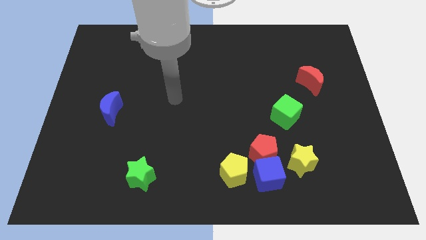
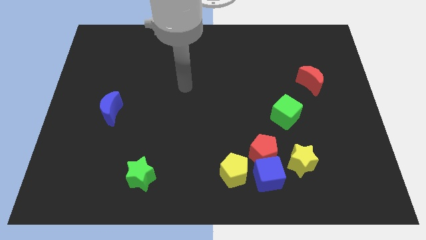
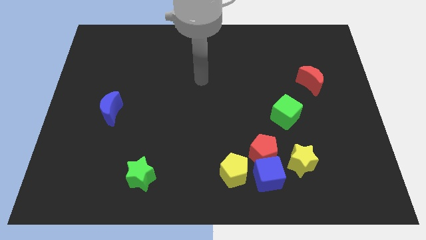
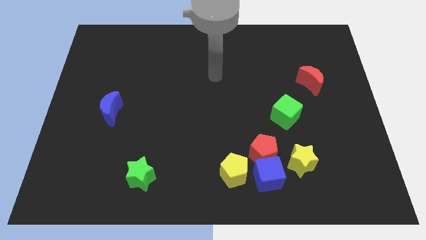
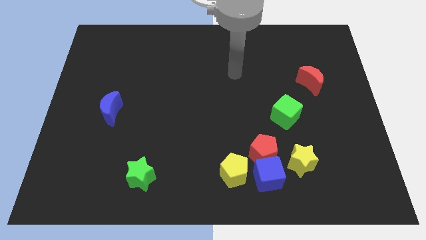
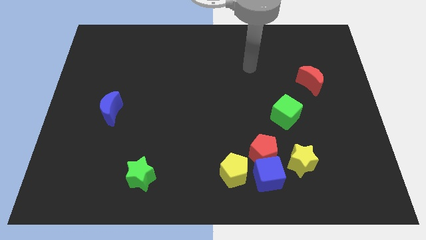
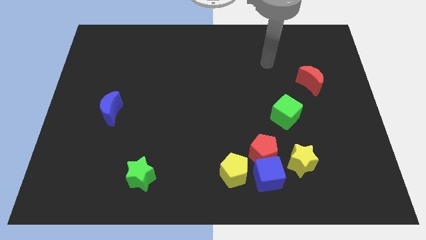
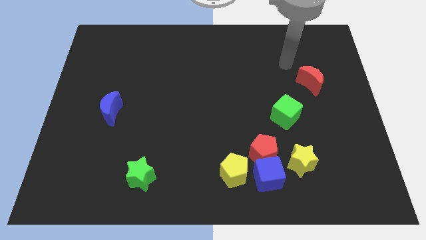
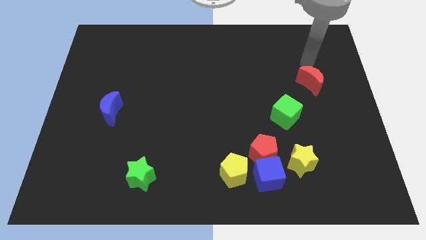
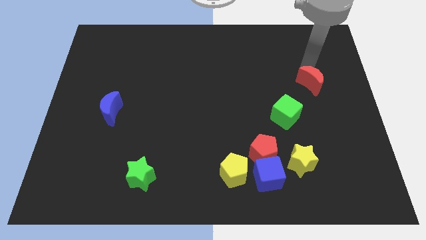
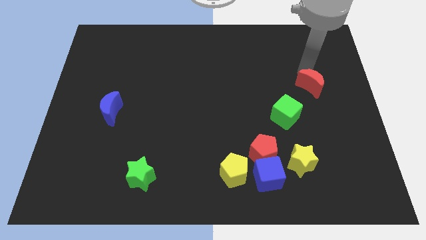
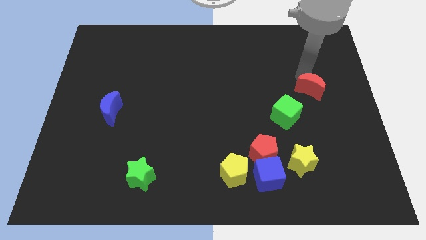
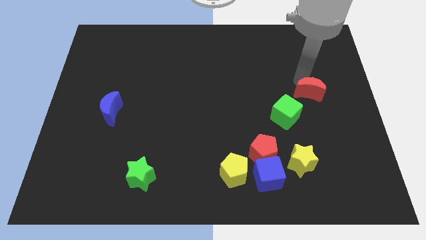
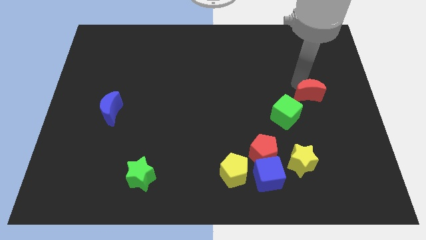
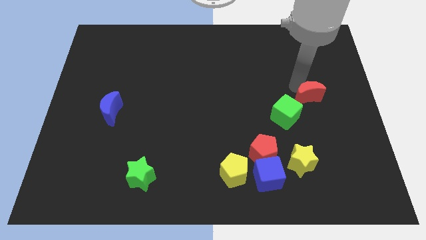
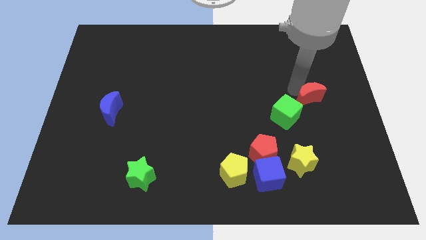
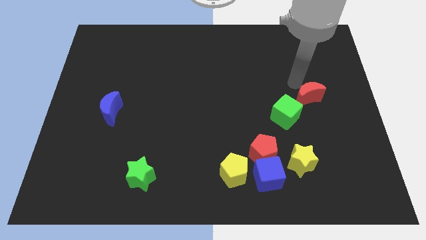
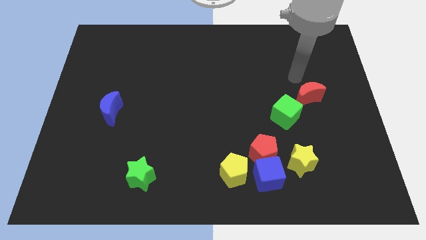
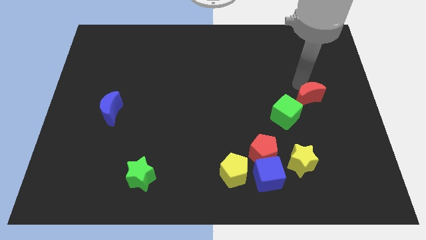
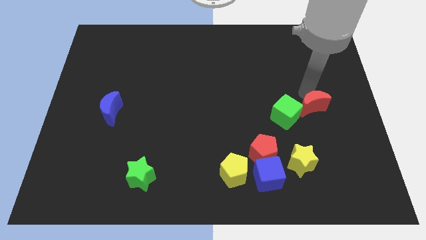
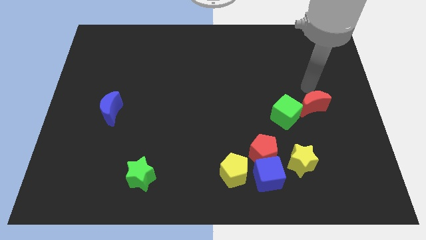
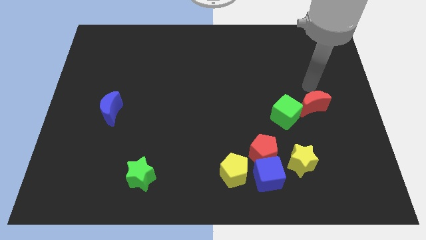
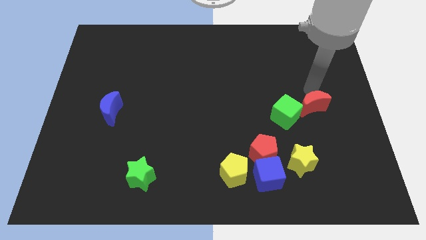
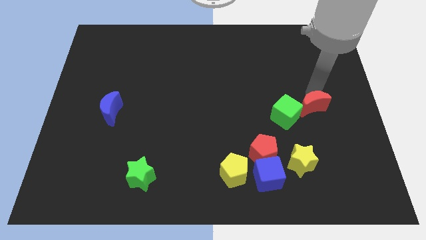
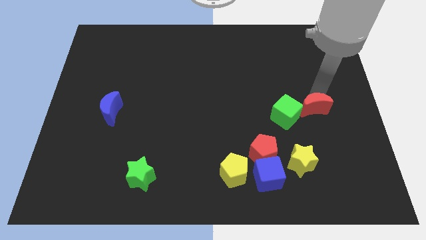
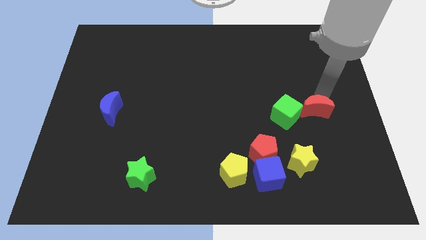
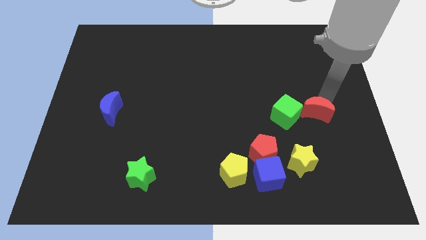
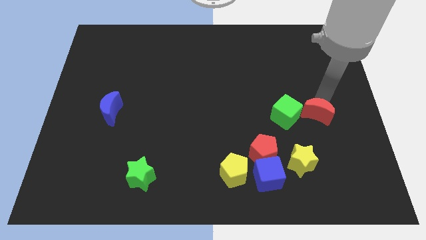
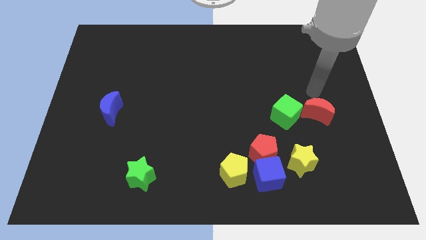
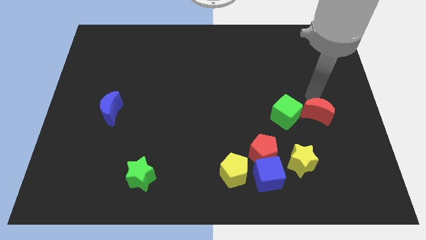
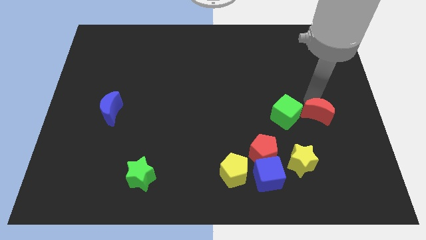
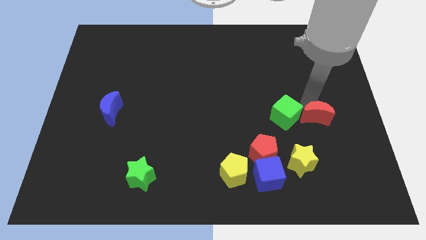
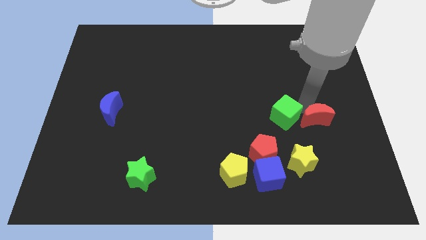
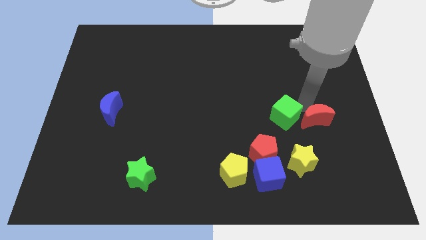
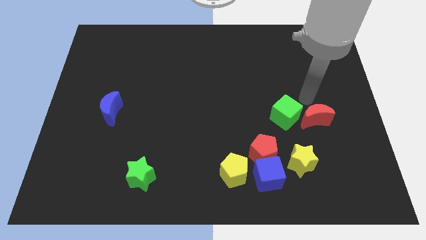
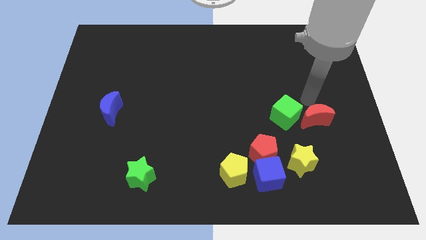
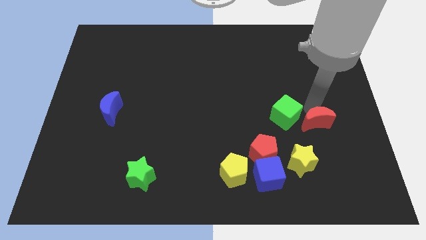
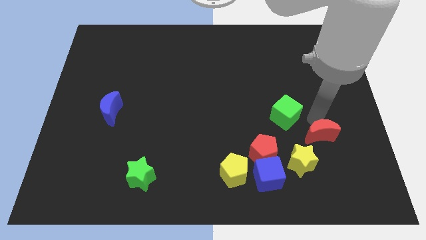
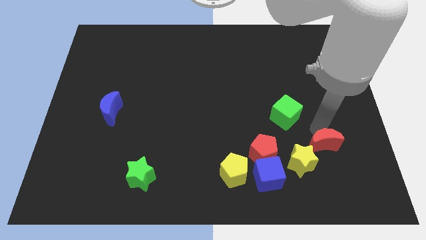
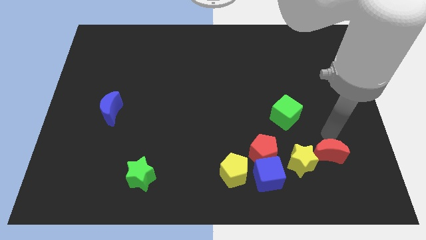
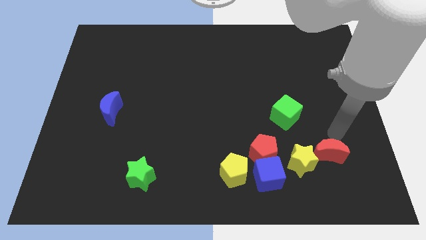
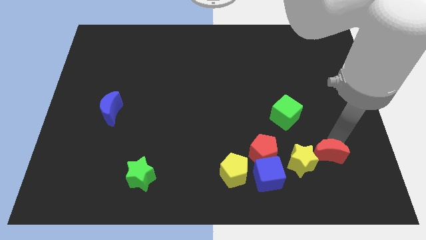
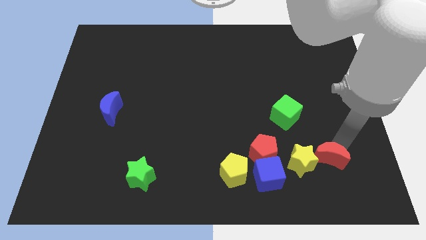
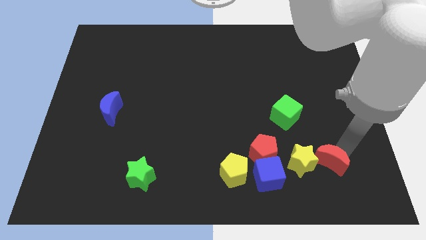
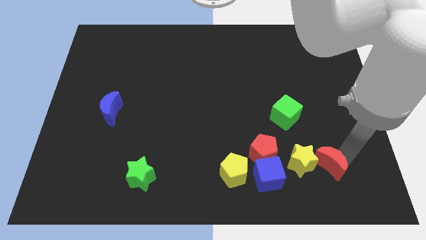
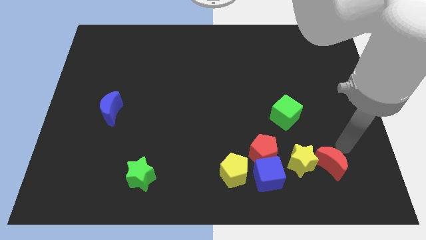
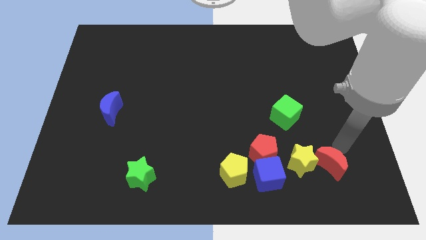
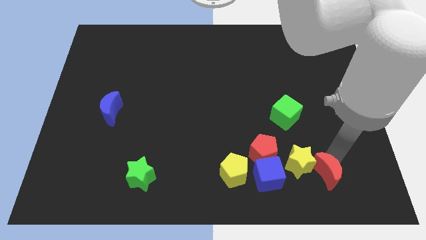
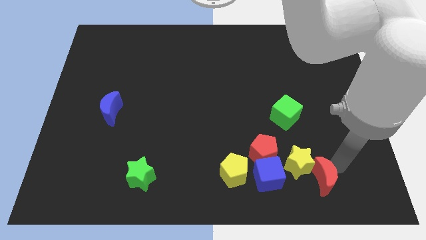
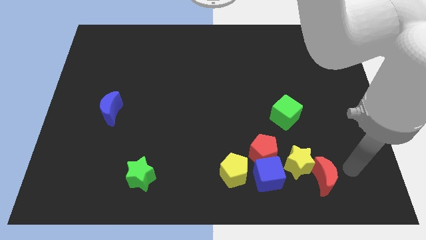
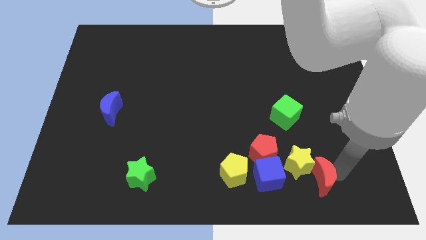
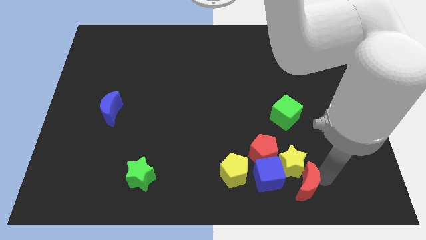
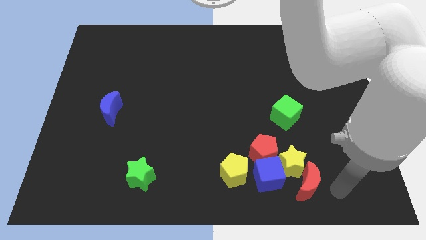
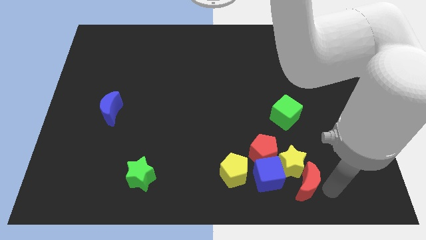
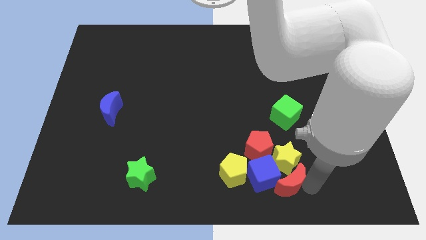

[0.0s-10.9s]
put the red moon close to the blue cube

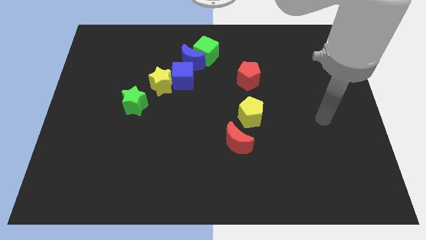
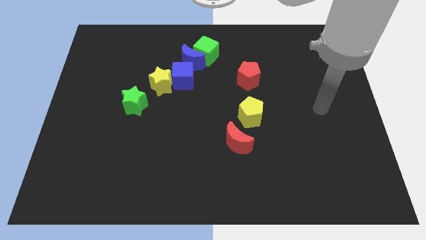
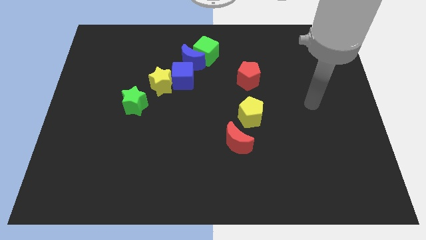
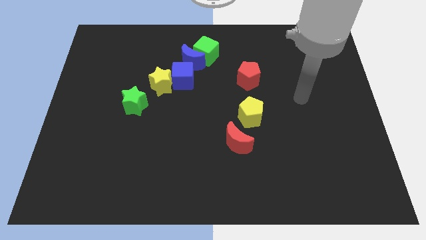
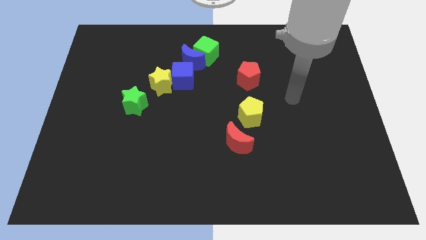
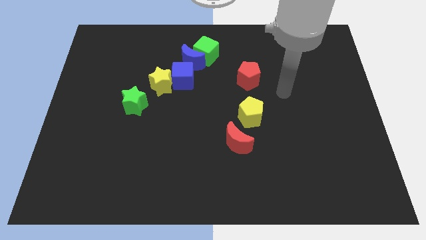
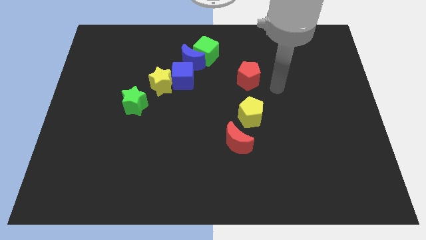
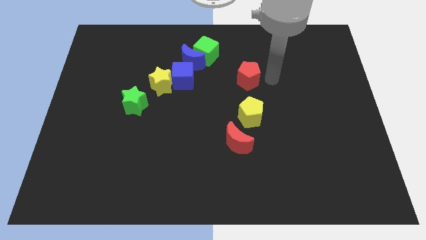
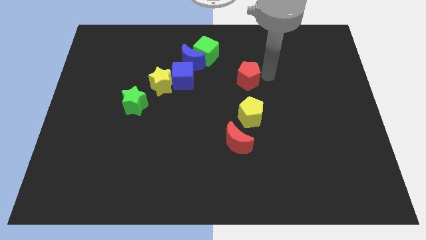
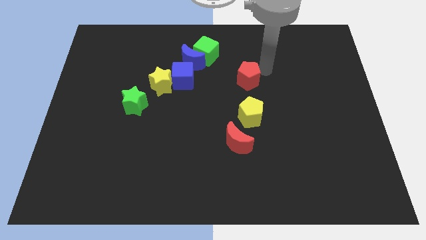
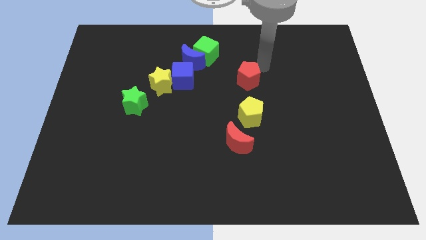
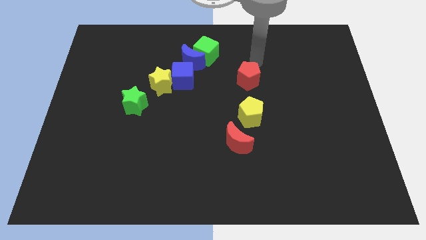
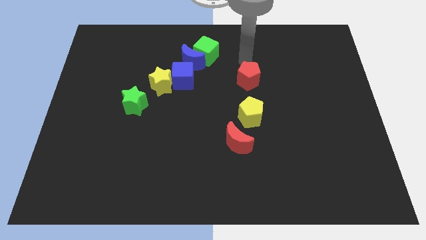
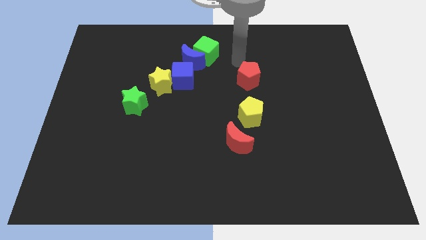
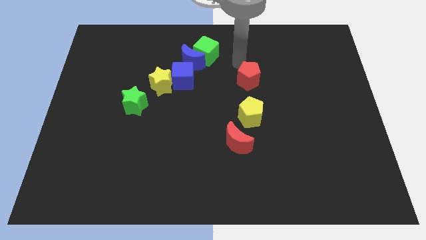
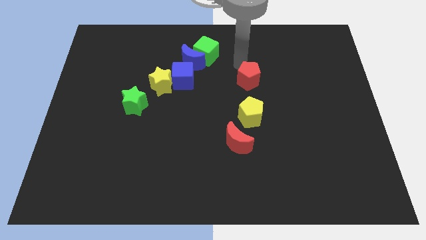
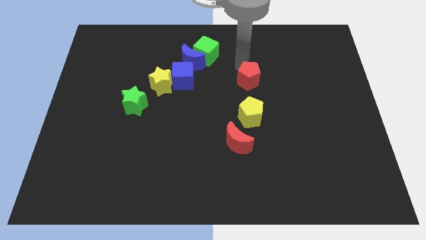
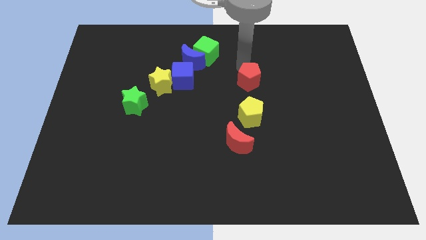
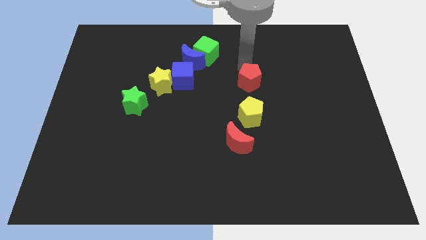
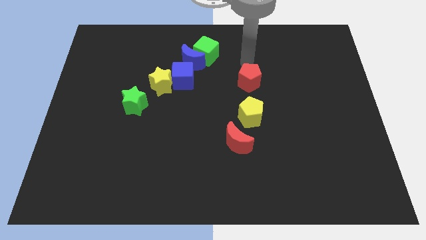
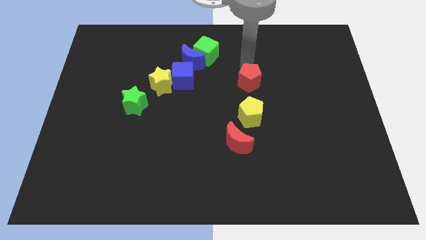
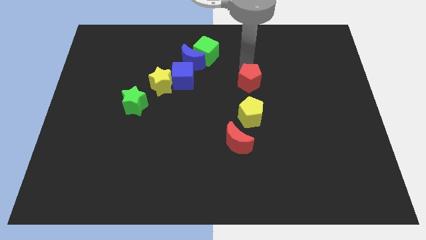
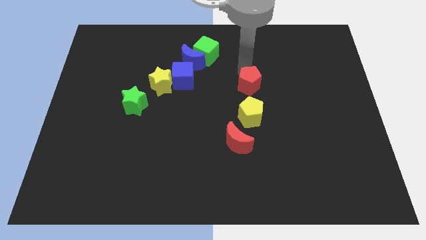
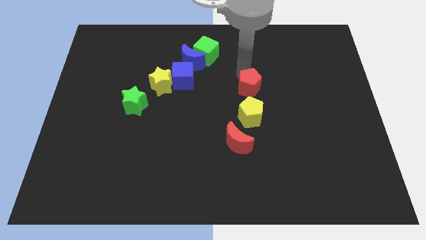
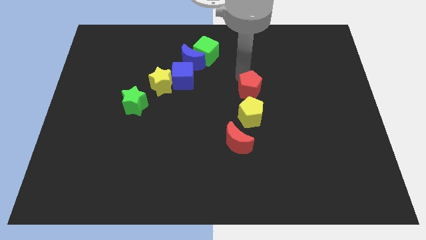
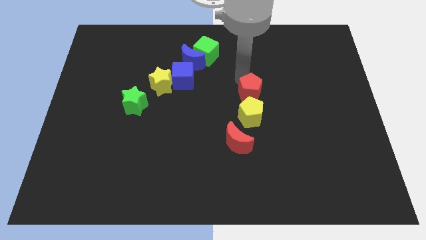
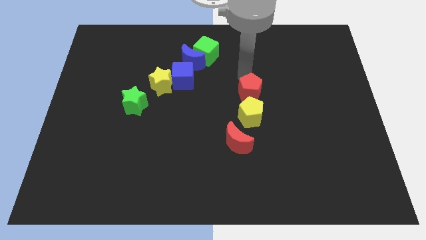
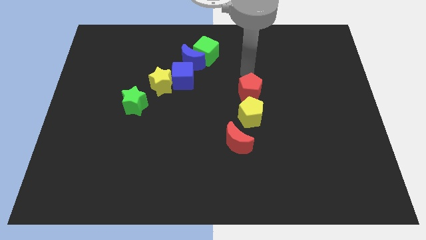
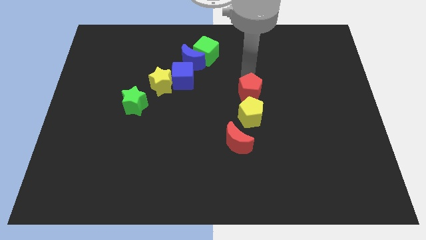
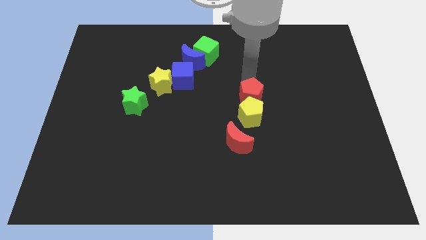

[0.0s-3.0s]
move the red pentagon towards the yellow pentagon
